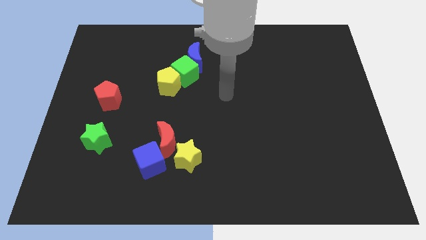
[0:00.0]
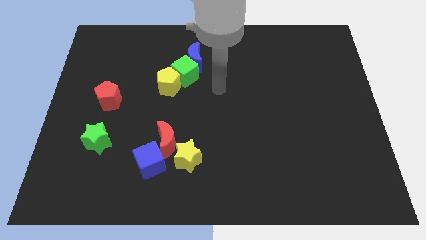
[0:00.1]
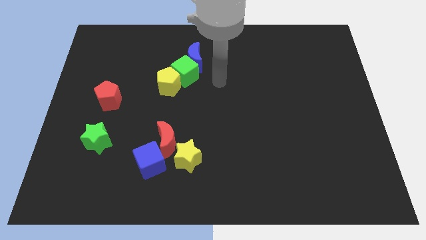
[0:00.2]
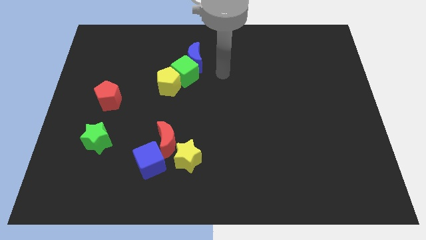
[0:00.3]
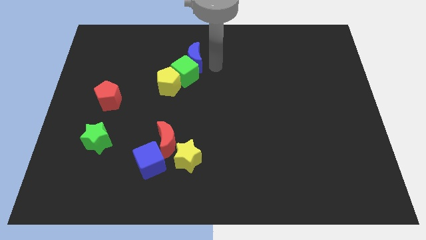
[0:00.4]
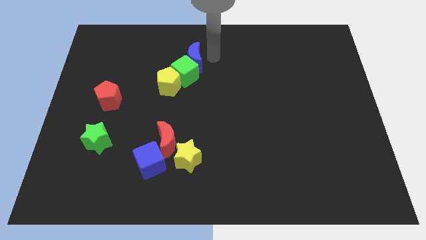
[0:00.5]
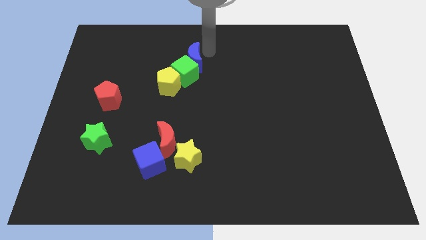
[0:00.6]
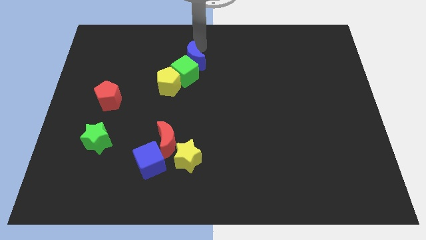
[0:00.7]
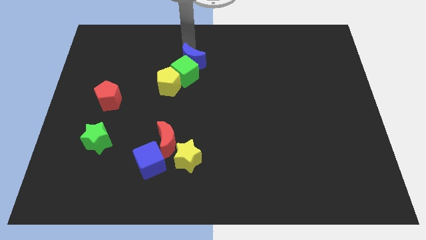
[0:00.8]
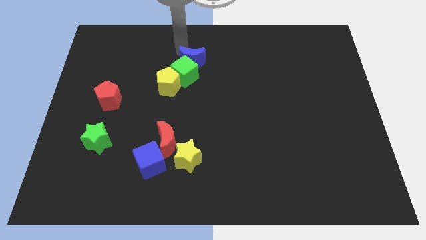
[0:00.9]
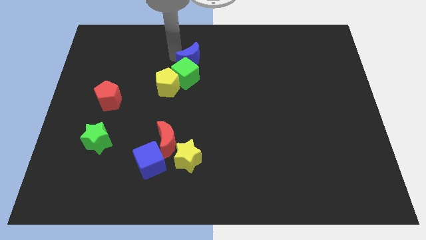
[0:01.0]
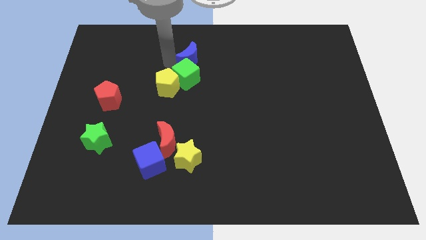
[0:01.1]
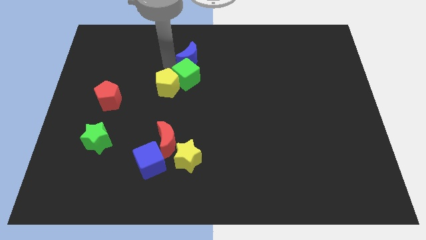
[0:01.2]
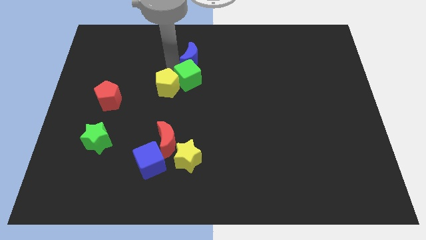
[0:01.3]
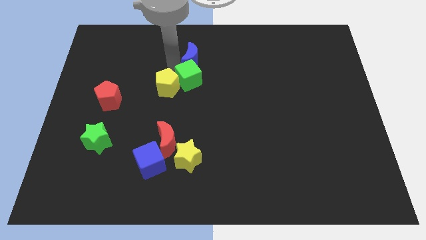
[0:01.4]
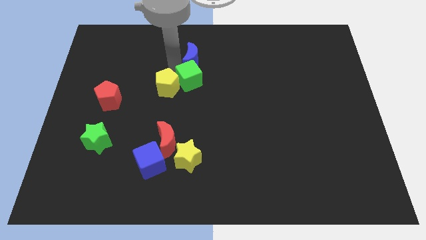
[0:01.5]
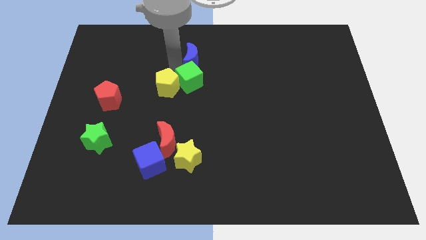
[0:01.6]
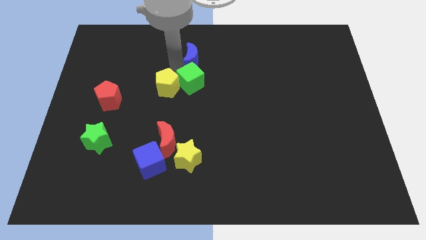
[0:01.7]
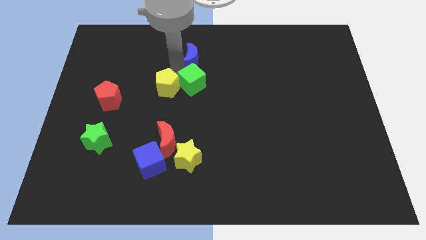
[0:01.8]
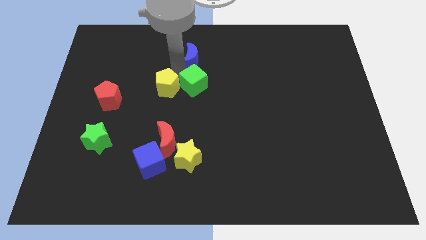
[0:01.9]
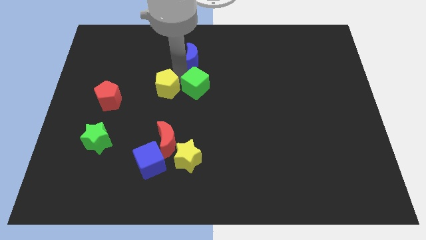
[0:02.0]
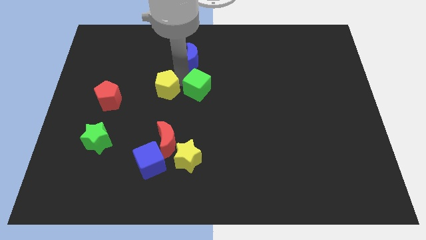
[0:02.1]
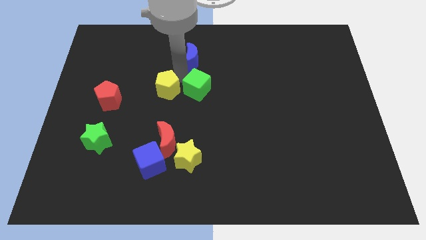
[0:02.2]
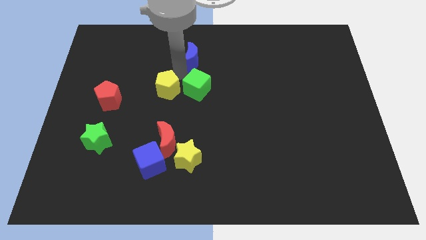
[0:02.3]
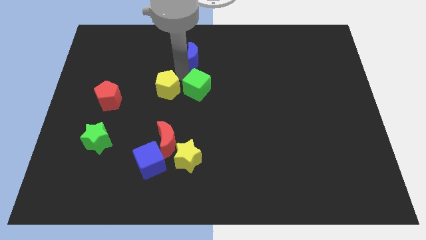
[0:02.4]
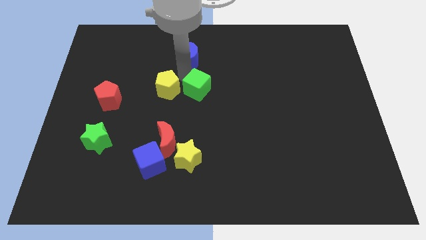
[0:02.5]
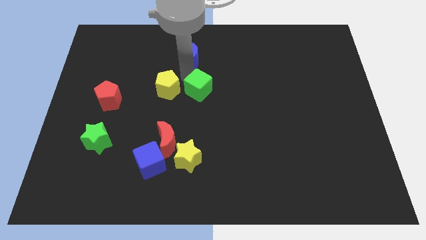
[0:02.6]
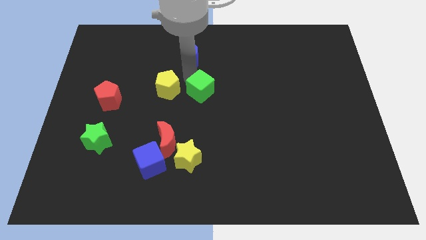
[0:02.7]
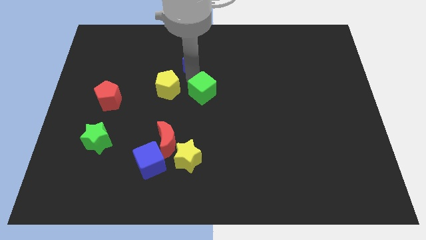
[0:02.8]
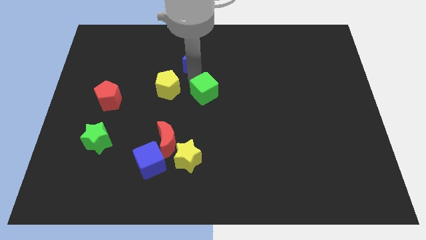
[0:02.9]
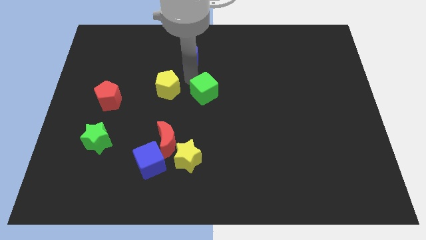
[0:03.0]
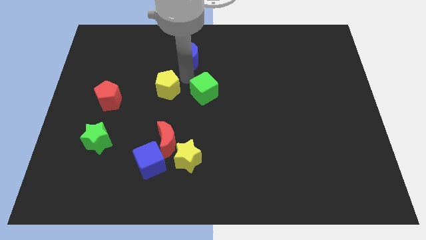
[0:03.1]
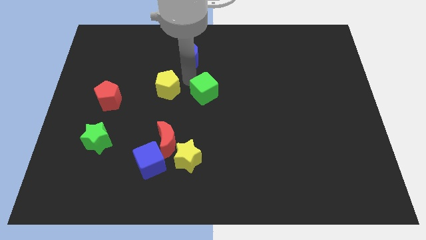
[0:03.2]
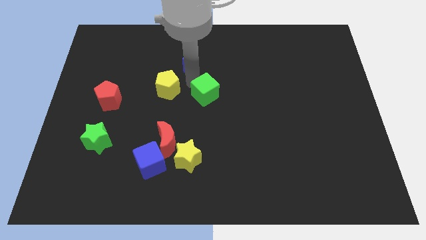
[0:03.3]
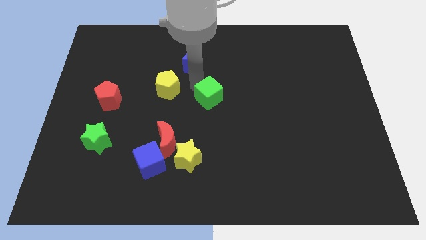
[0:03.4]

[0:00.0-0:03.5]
move the green cube away from the blue moon and yellow pentagon

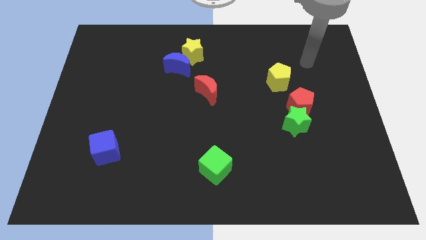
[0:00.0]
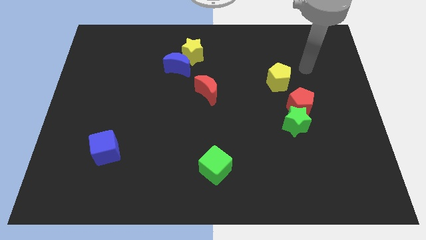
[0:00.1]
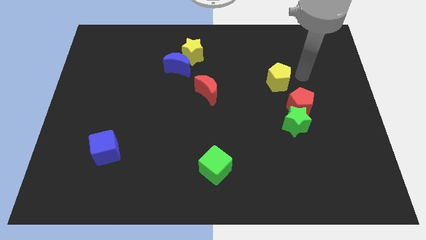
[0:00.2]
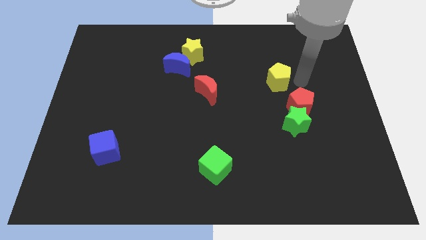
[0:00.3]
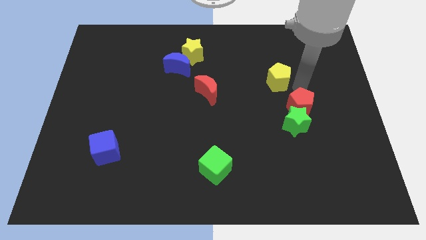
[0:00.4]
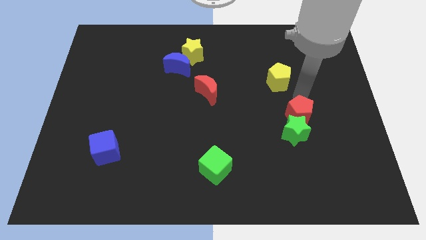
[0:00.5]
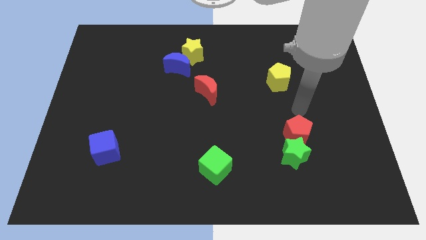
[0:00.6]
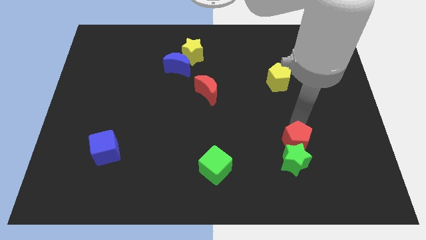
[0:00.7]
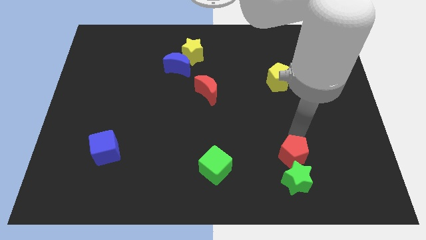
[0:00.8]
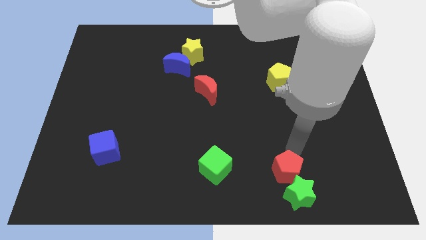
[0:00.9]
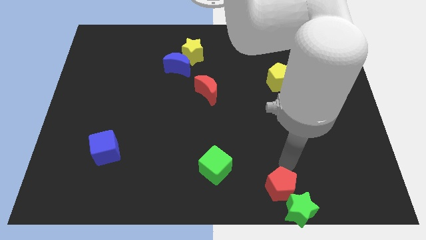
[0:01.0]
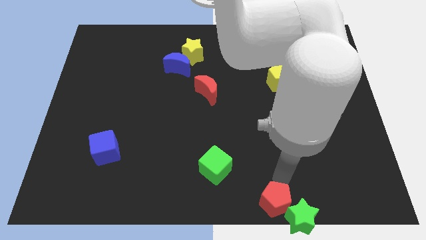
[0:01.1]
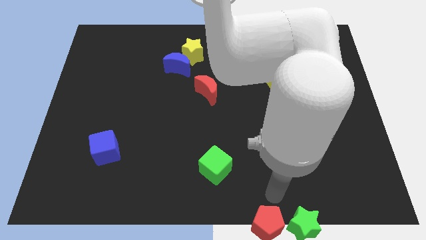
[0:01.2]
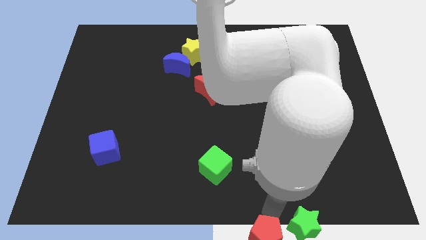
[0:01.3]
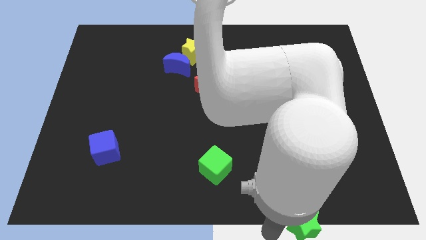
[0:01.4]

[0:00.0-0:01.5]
pull the green star apart from the red pentagon

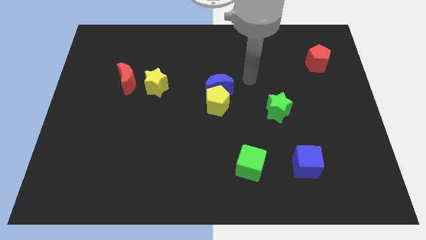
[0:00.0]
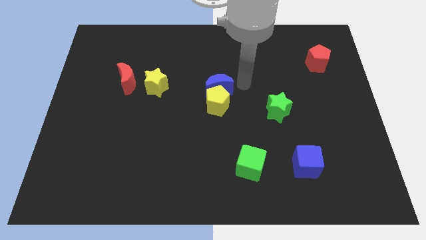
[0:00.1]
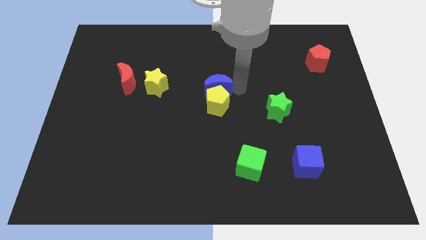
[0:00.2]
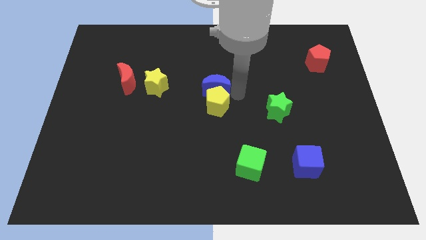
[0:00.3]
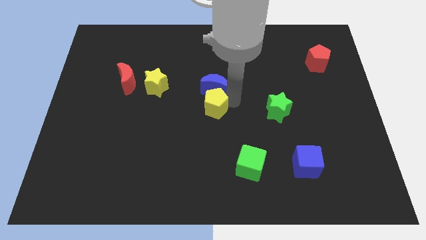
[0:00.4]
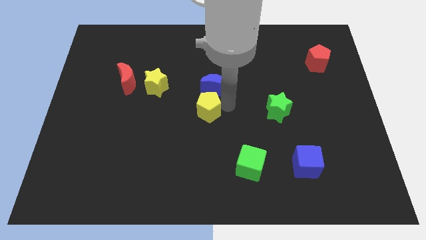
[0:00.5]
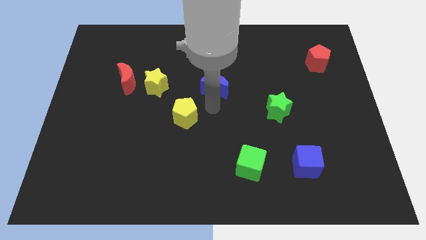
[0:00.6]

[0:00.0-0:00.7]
move the blue moon away from the yellow pentagon

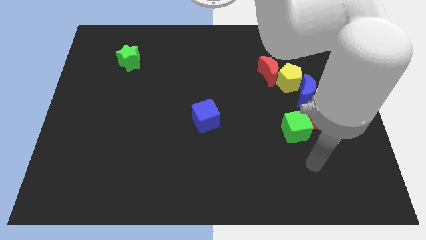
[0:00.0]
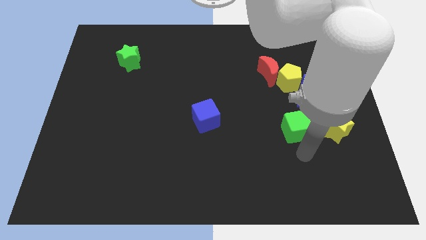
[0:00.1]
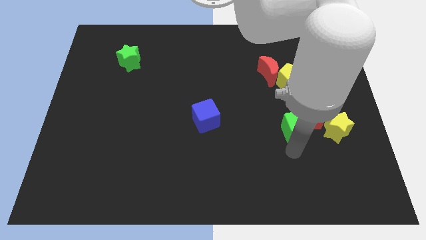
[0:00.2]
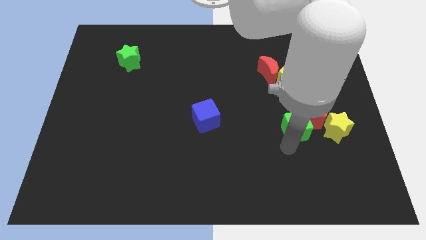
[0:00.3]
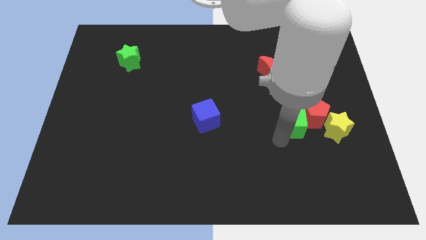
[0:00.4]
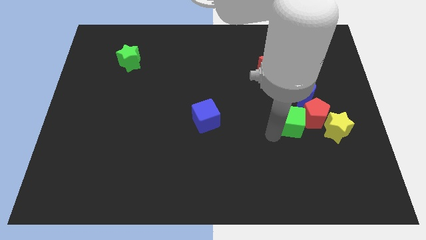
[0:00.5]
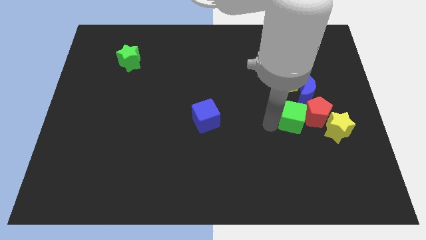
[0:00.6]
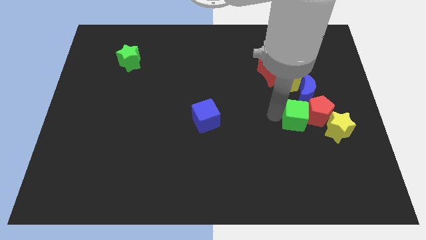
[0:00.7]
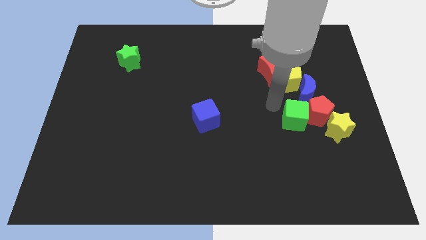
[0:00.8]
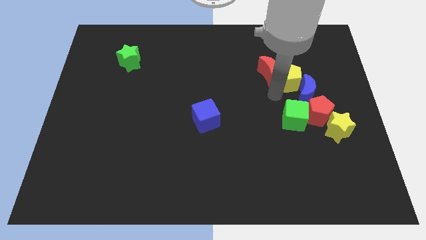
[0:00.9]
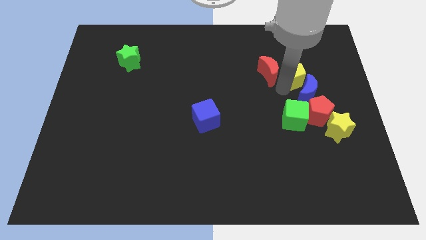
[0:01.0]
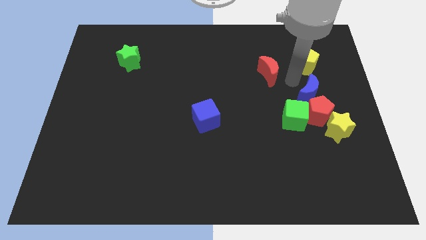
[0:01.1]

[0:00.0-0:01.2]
separate the red moon from the yellow pentagon

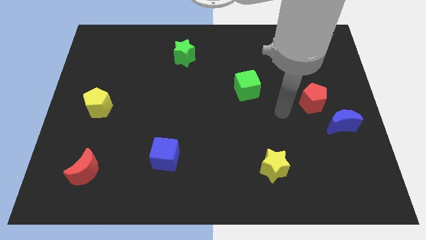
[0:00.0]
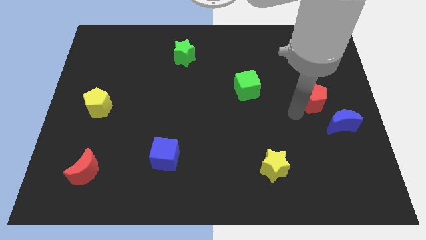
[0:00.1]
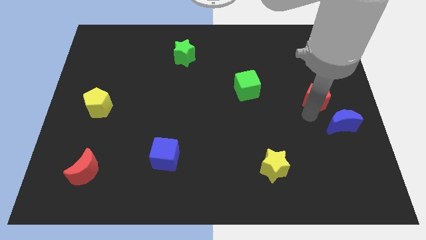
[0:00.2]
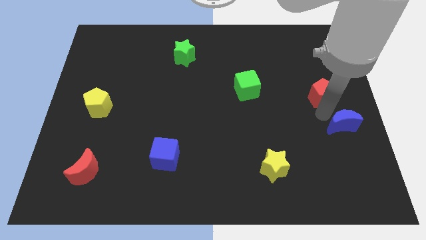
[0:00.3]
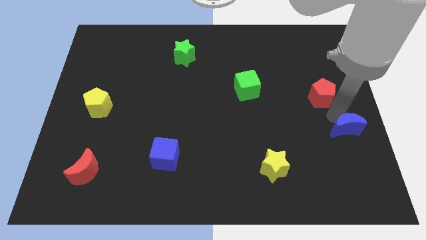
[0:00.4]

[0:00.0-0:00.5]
move the red pentagon away from the blue moon

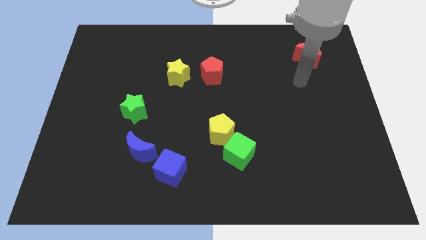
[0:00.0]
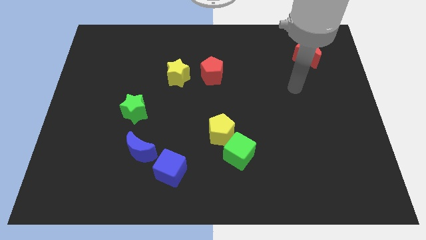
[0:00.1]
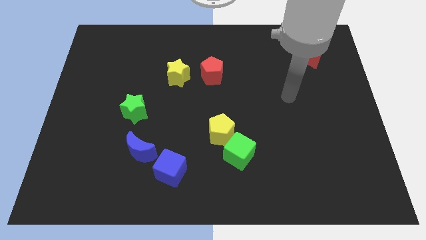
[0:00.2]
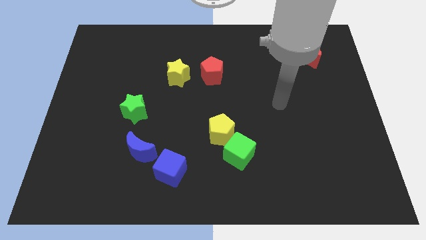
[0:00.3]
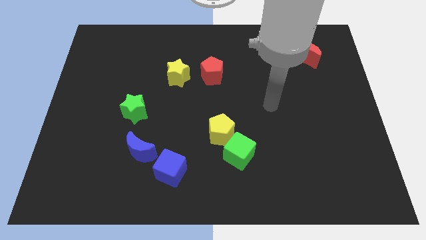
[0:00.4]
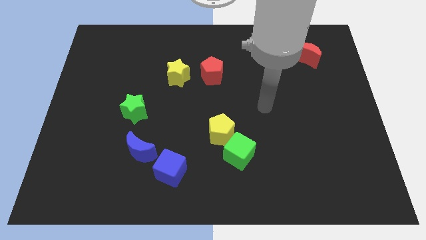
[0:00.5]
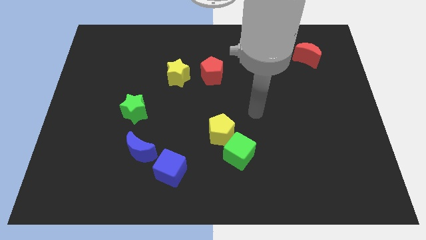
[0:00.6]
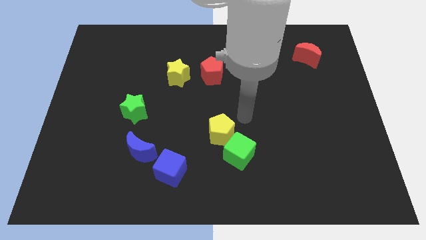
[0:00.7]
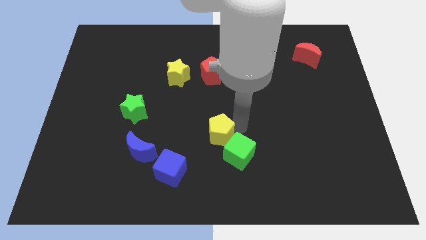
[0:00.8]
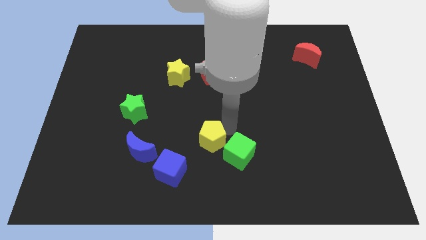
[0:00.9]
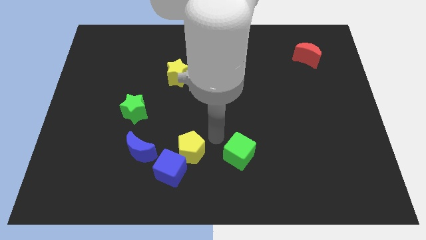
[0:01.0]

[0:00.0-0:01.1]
move the green cube away from the yellow pentagon

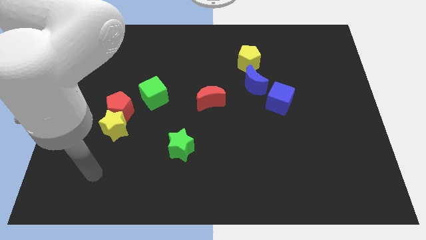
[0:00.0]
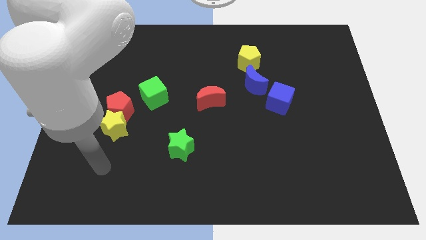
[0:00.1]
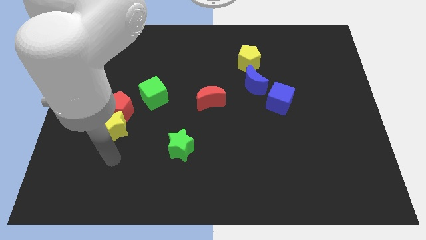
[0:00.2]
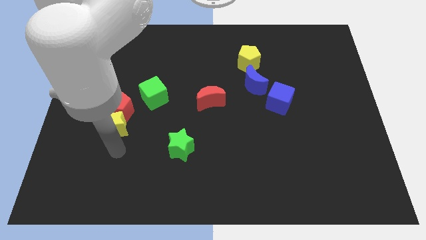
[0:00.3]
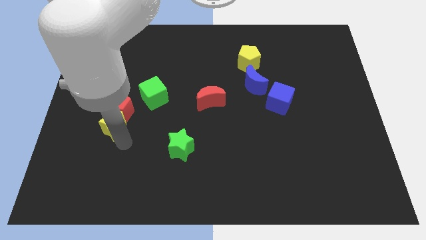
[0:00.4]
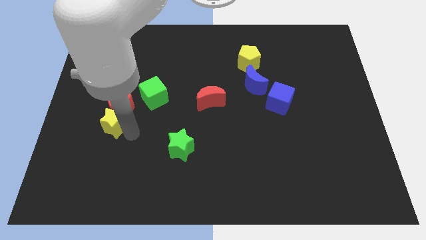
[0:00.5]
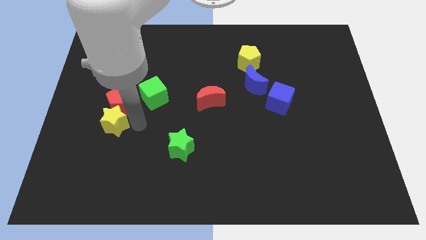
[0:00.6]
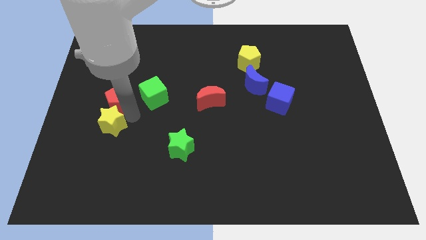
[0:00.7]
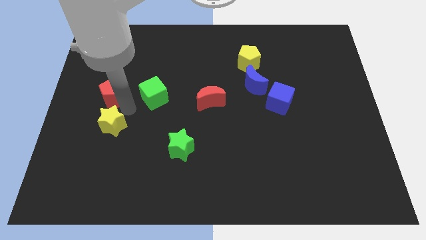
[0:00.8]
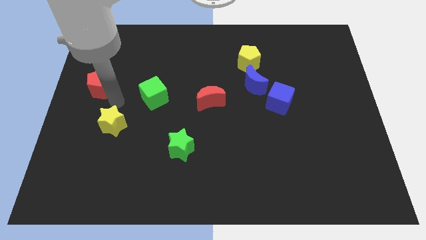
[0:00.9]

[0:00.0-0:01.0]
separate the yellow star from the red pentagon
